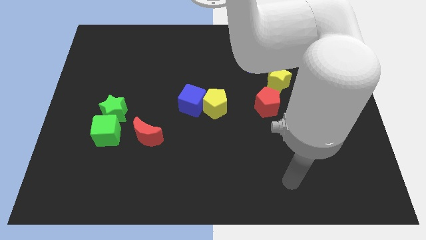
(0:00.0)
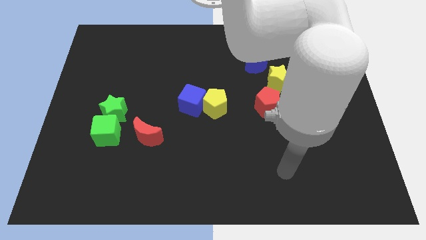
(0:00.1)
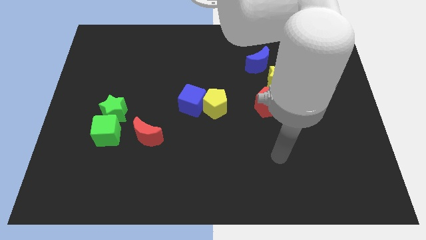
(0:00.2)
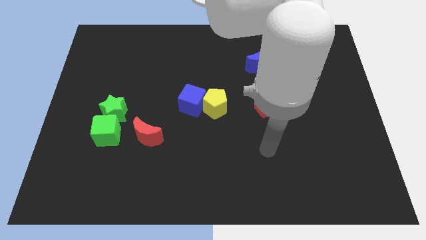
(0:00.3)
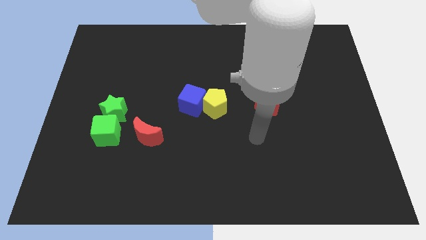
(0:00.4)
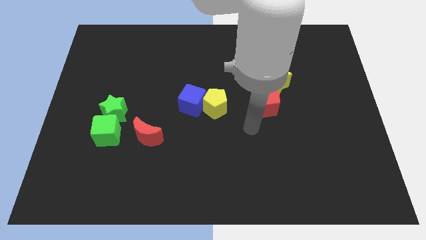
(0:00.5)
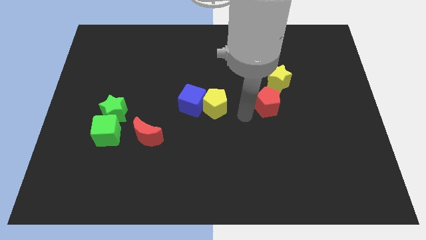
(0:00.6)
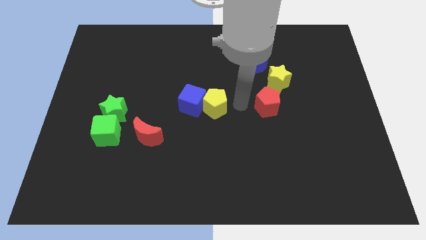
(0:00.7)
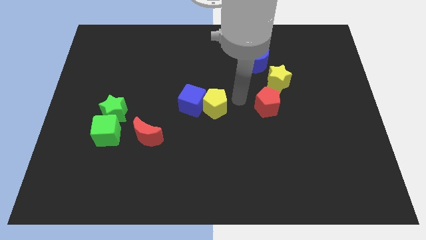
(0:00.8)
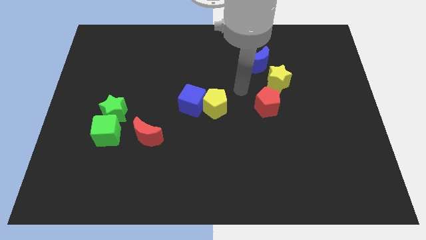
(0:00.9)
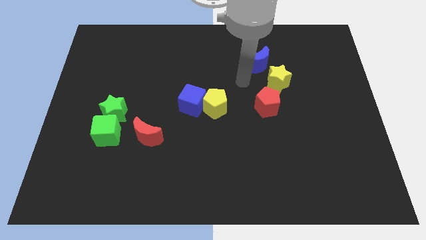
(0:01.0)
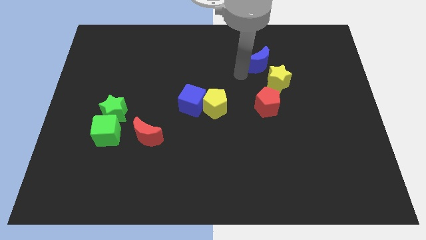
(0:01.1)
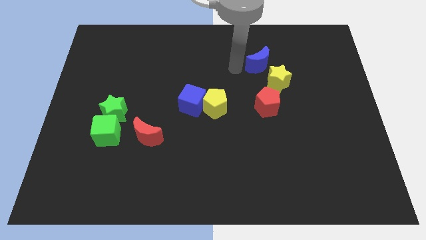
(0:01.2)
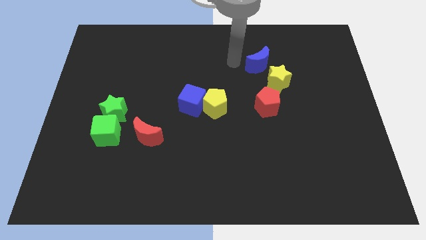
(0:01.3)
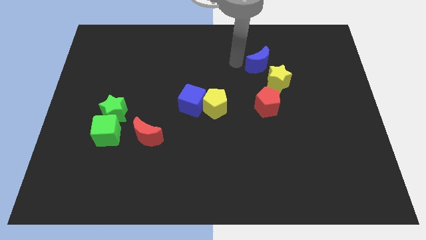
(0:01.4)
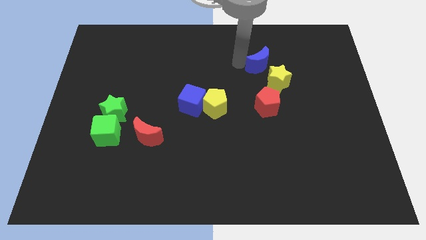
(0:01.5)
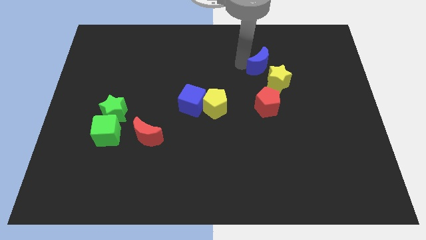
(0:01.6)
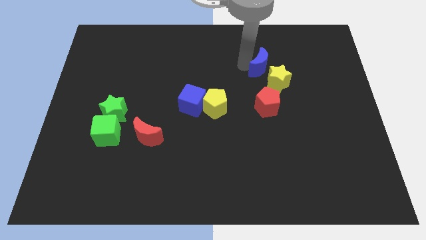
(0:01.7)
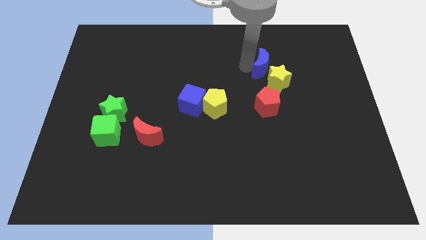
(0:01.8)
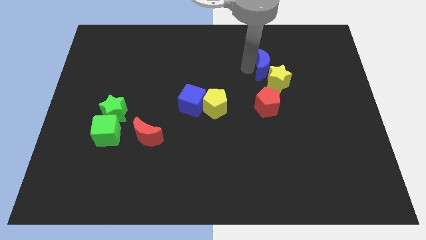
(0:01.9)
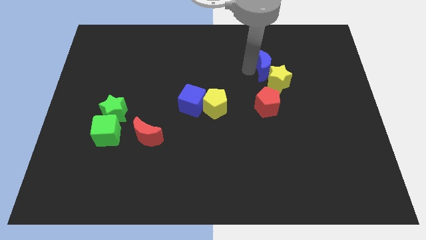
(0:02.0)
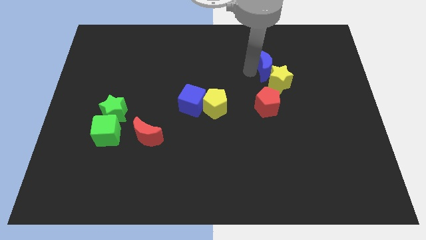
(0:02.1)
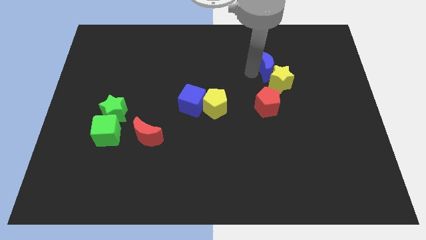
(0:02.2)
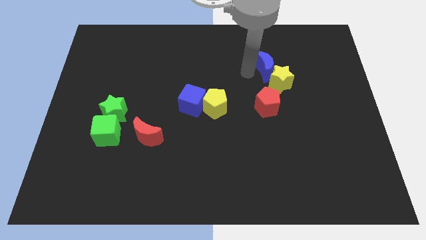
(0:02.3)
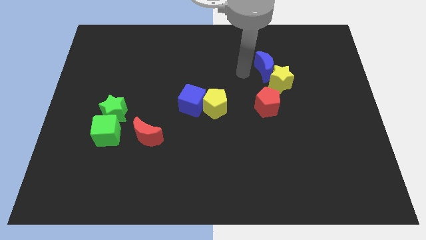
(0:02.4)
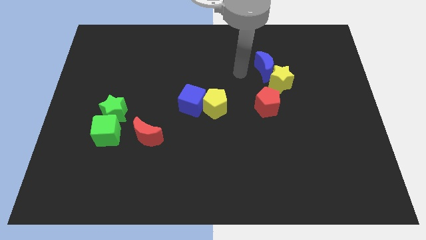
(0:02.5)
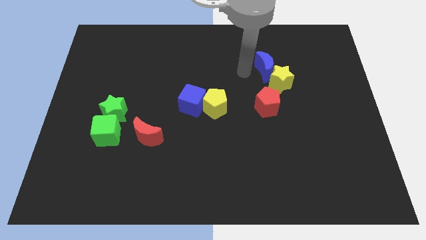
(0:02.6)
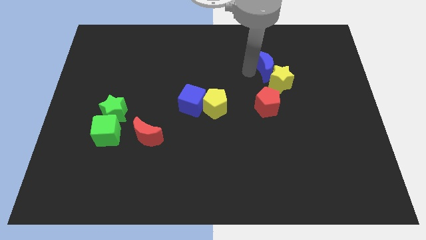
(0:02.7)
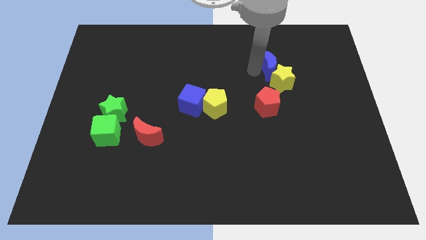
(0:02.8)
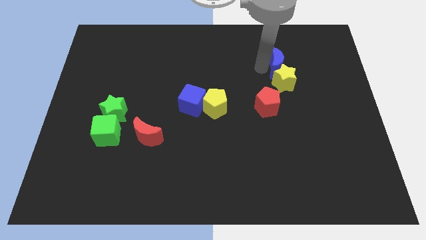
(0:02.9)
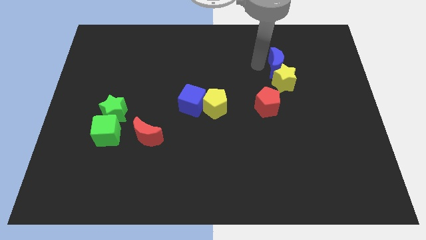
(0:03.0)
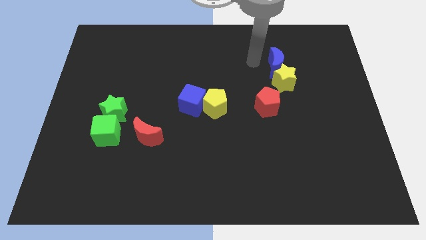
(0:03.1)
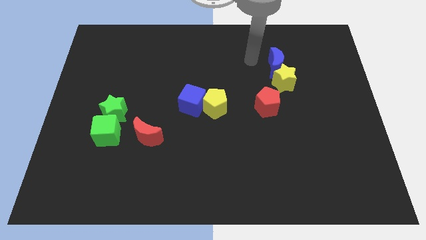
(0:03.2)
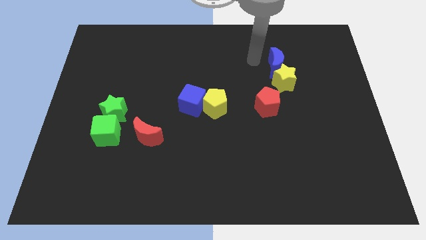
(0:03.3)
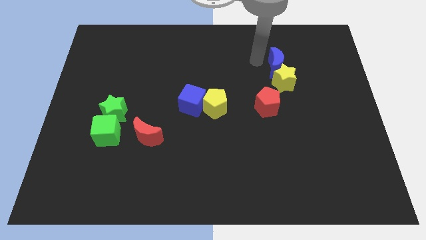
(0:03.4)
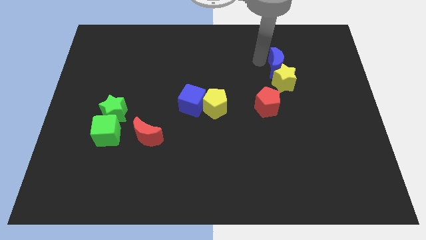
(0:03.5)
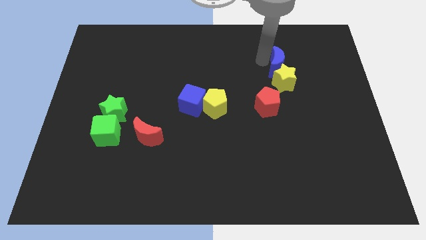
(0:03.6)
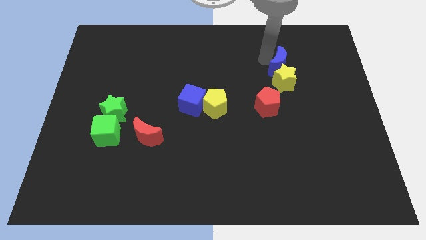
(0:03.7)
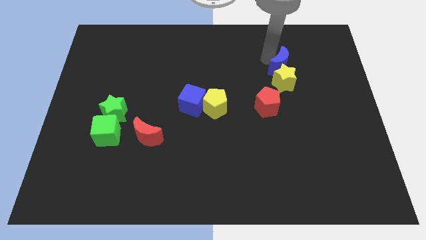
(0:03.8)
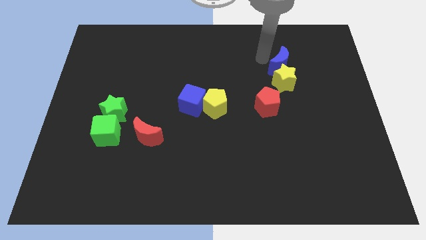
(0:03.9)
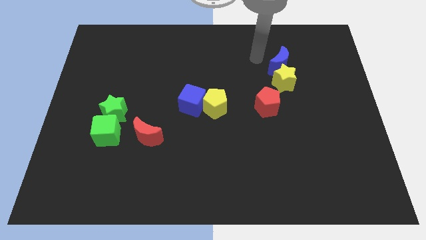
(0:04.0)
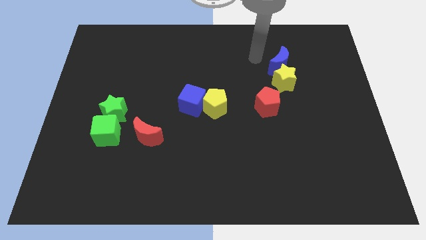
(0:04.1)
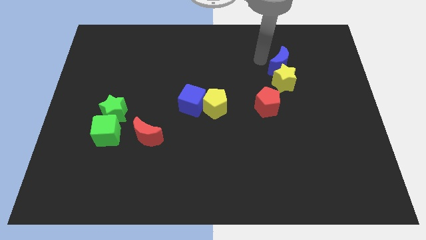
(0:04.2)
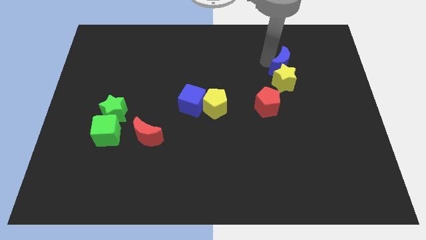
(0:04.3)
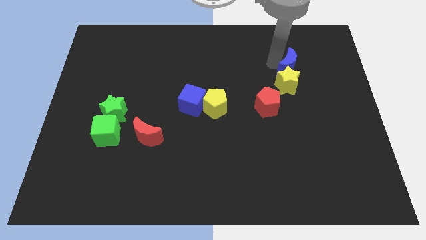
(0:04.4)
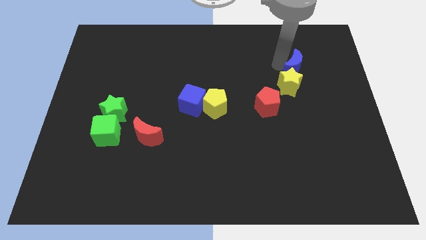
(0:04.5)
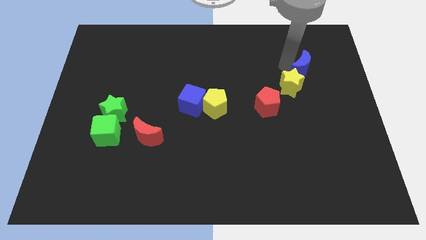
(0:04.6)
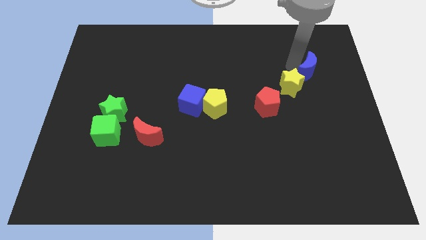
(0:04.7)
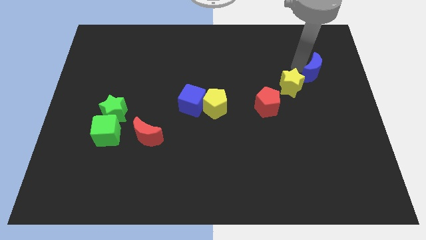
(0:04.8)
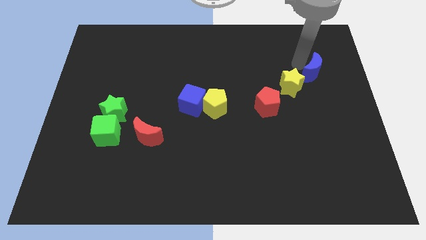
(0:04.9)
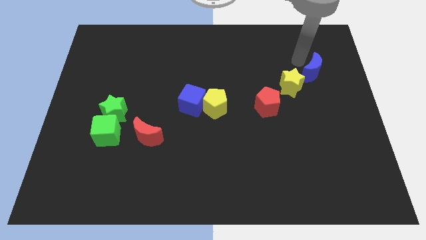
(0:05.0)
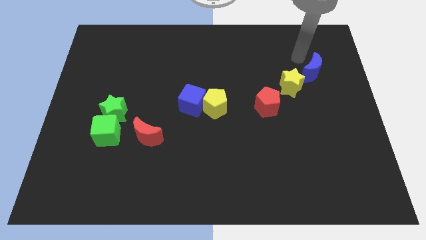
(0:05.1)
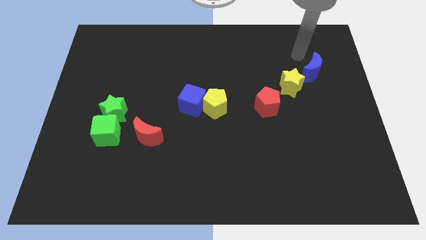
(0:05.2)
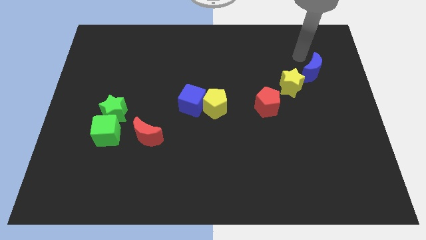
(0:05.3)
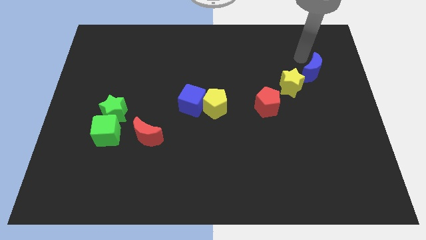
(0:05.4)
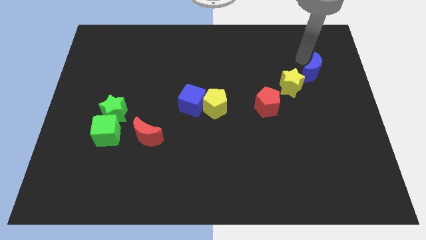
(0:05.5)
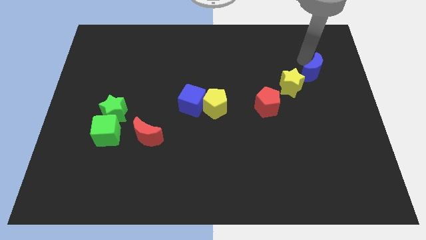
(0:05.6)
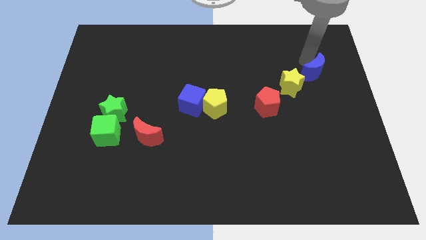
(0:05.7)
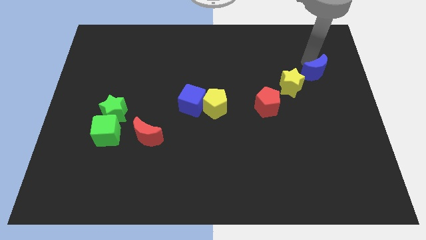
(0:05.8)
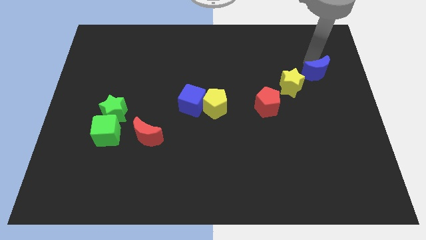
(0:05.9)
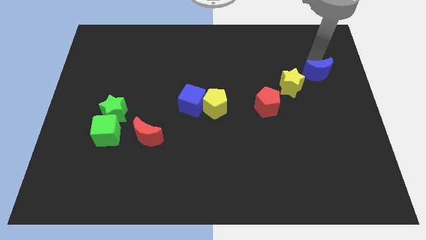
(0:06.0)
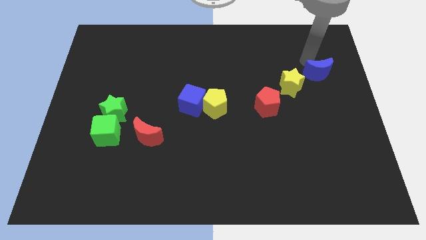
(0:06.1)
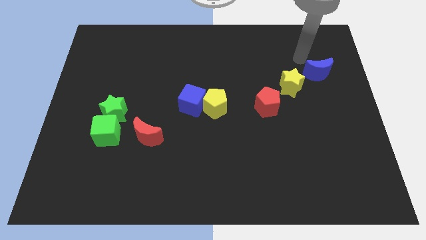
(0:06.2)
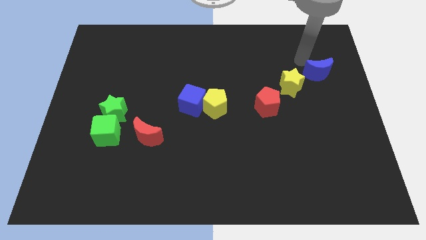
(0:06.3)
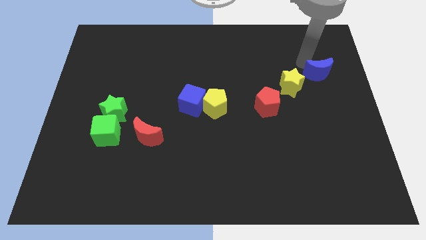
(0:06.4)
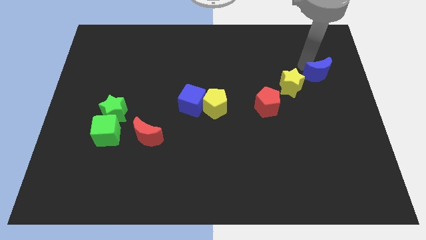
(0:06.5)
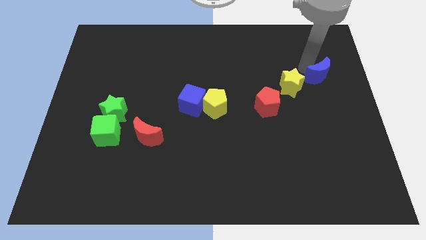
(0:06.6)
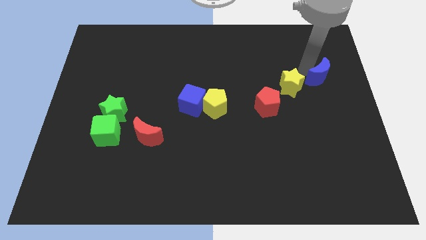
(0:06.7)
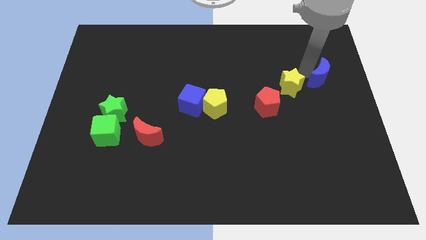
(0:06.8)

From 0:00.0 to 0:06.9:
push the blue moon to the right side
